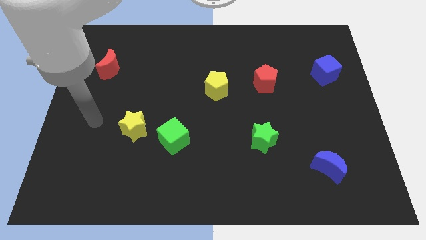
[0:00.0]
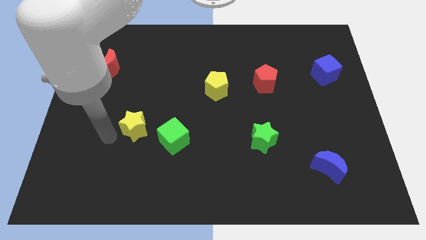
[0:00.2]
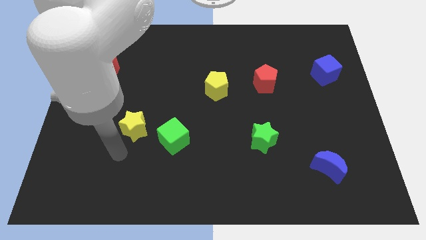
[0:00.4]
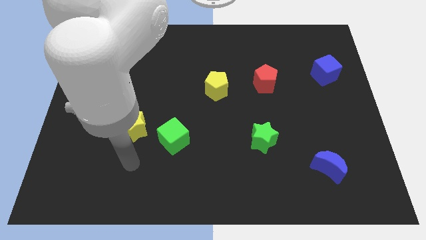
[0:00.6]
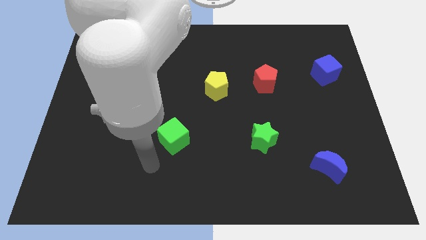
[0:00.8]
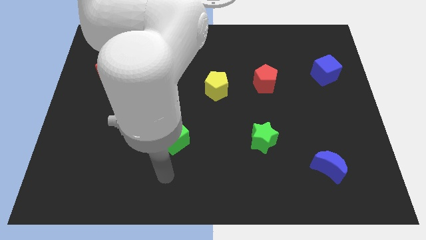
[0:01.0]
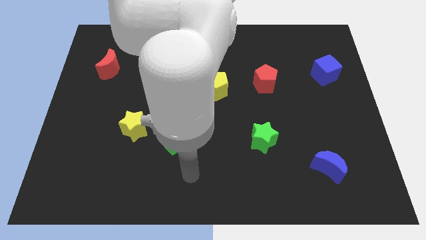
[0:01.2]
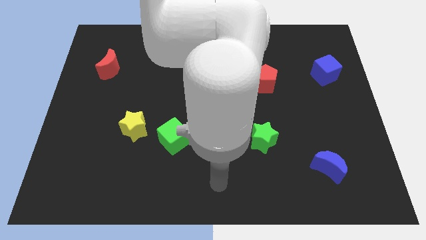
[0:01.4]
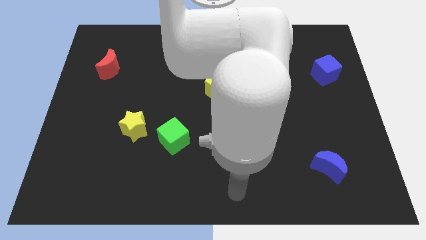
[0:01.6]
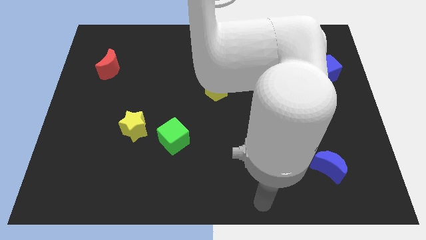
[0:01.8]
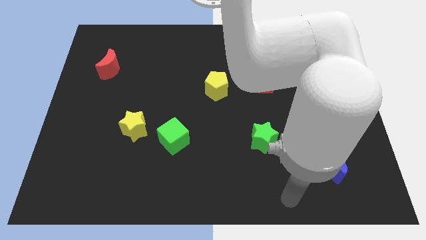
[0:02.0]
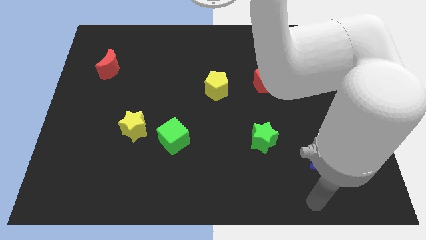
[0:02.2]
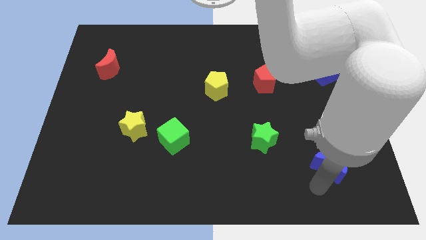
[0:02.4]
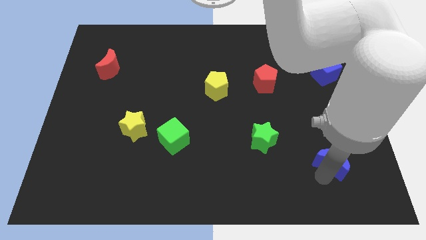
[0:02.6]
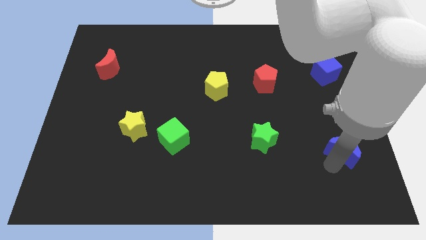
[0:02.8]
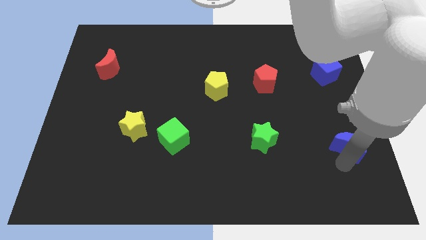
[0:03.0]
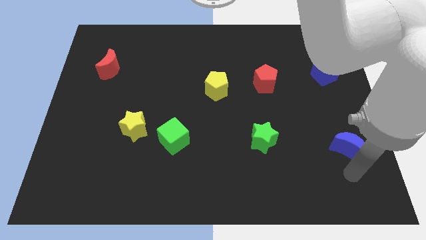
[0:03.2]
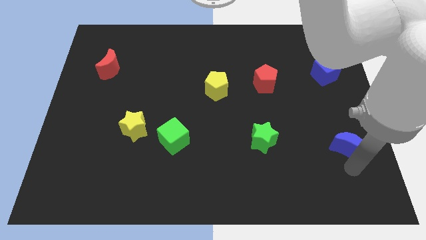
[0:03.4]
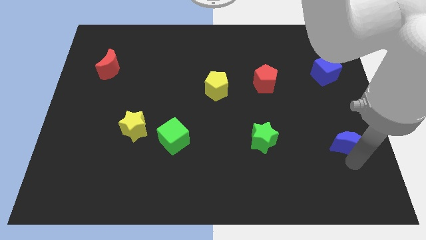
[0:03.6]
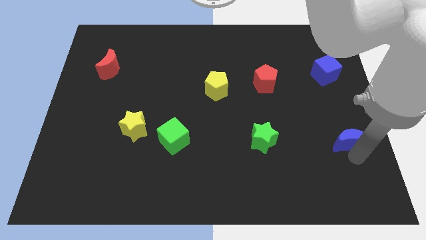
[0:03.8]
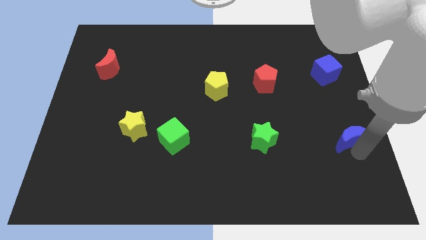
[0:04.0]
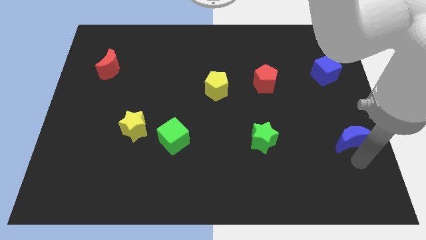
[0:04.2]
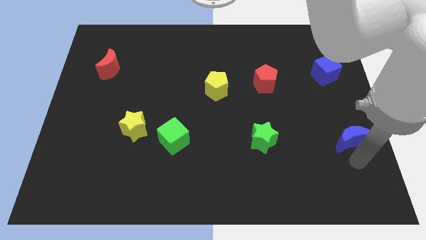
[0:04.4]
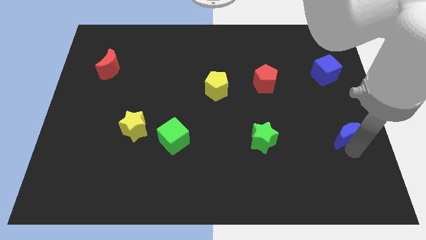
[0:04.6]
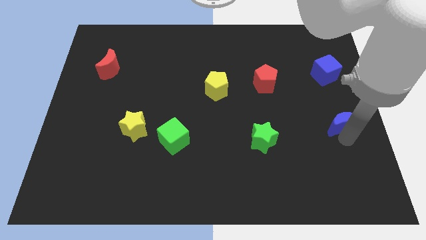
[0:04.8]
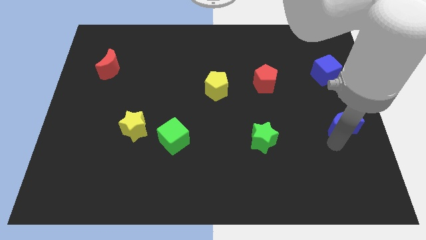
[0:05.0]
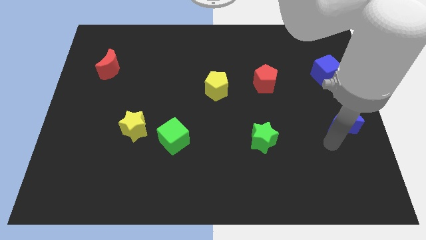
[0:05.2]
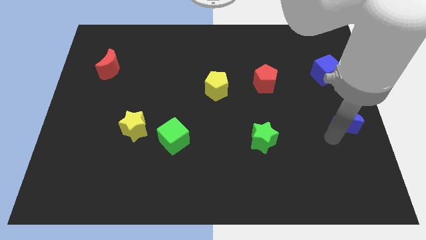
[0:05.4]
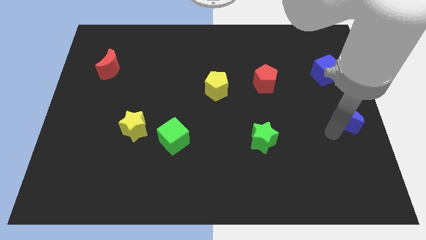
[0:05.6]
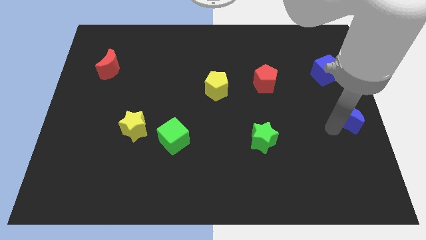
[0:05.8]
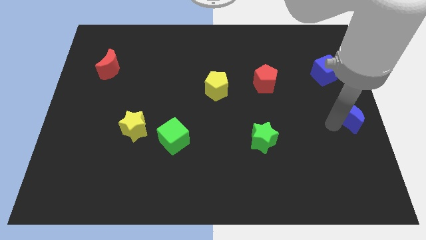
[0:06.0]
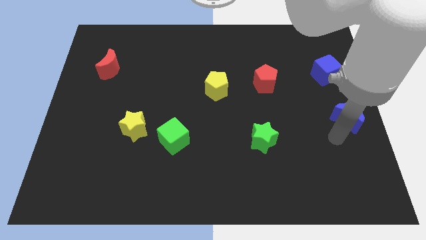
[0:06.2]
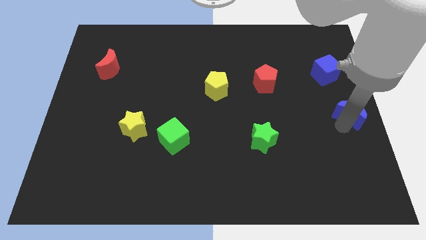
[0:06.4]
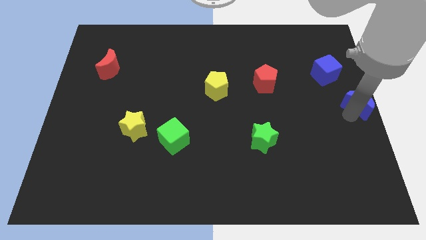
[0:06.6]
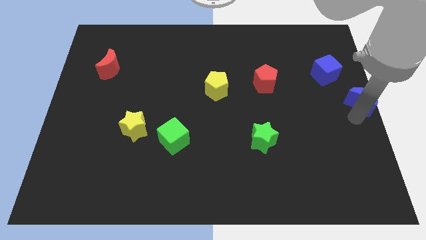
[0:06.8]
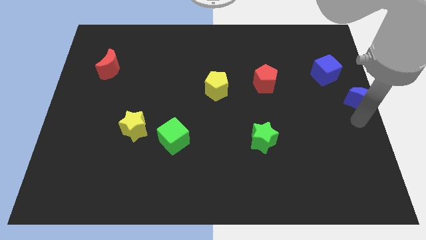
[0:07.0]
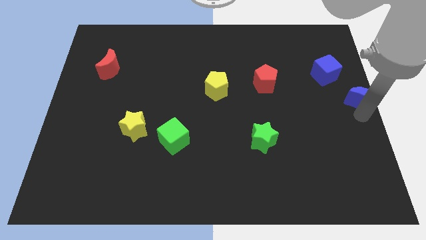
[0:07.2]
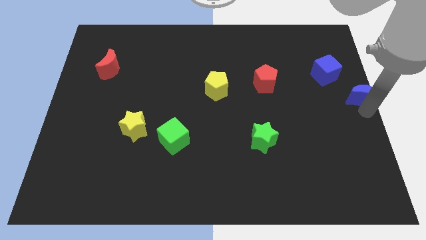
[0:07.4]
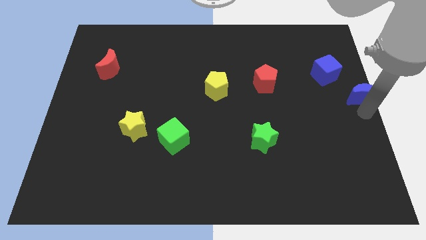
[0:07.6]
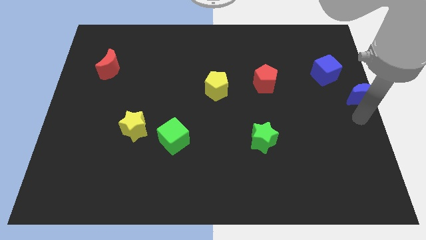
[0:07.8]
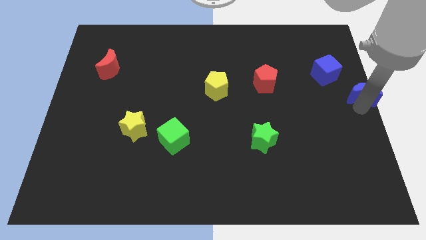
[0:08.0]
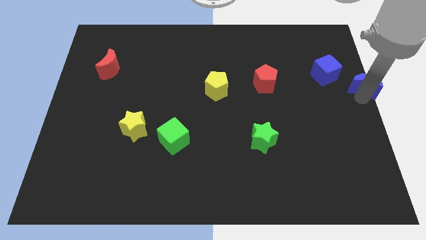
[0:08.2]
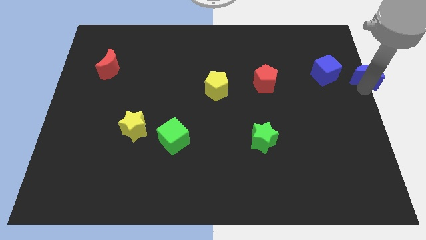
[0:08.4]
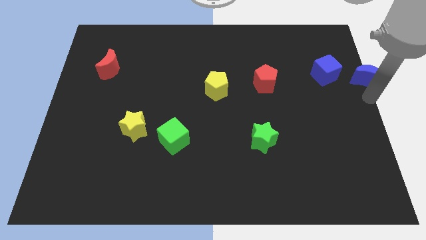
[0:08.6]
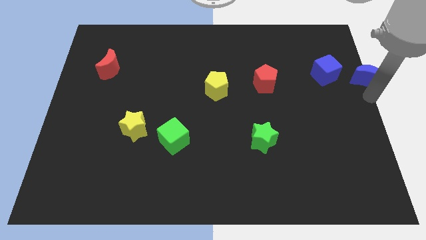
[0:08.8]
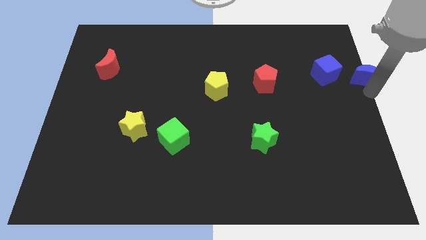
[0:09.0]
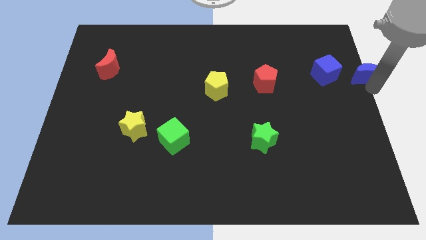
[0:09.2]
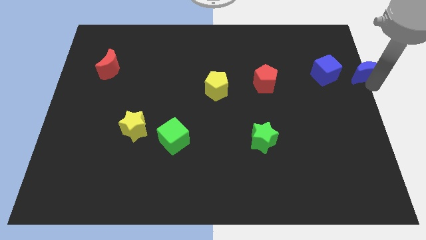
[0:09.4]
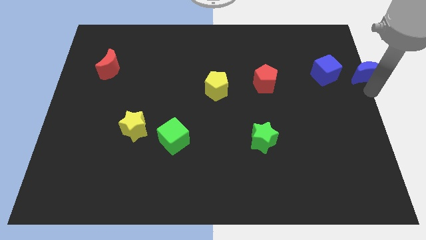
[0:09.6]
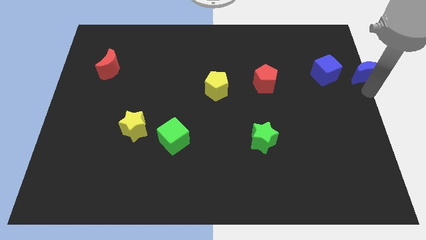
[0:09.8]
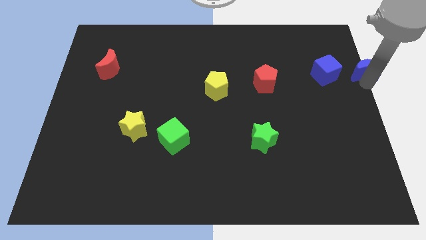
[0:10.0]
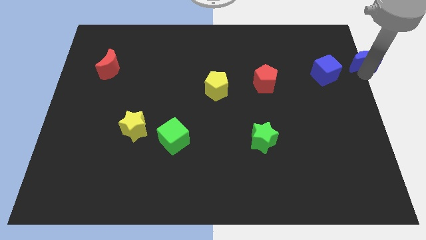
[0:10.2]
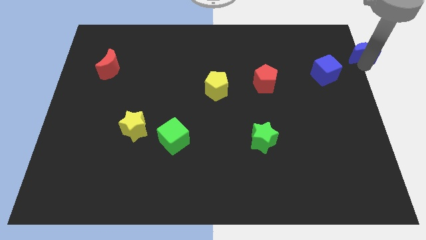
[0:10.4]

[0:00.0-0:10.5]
put the blue moon to the top right of the board

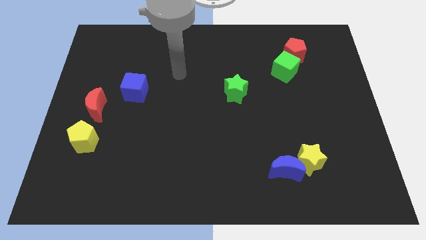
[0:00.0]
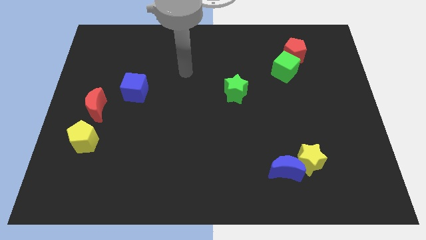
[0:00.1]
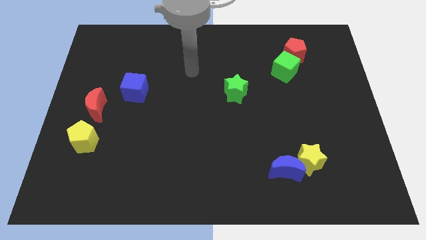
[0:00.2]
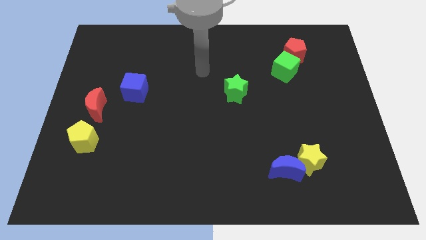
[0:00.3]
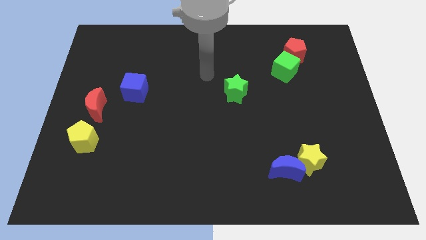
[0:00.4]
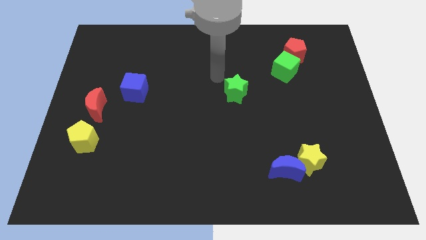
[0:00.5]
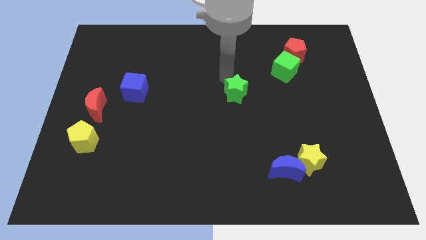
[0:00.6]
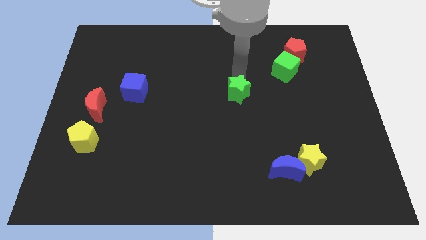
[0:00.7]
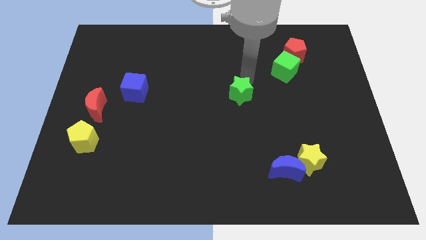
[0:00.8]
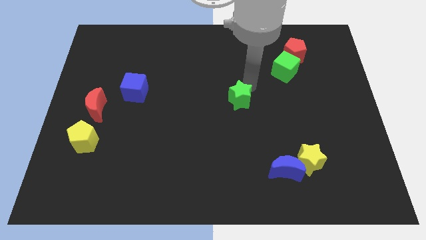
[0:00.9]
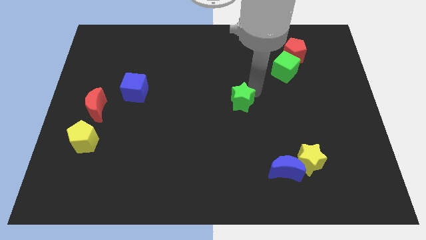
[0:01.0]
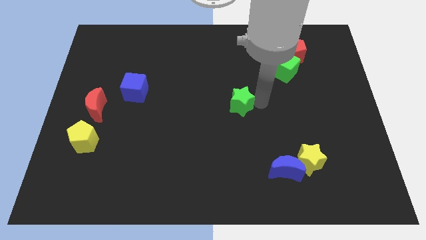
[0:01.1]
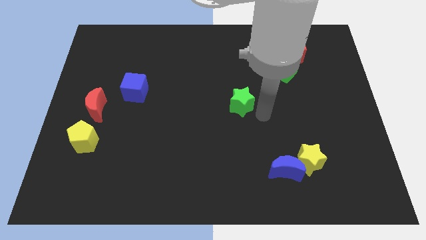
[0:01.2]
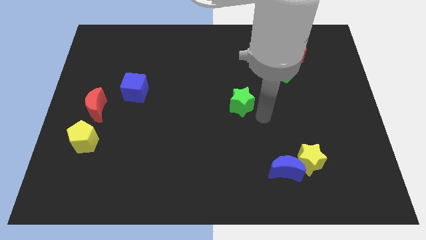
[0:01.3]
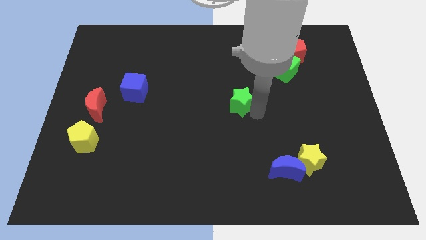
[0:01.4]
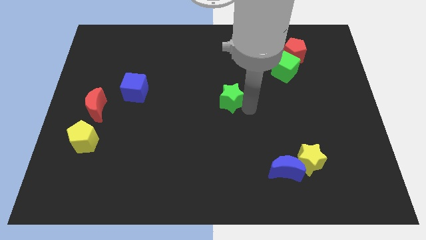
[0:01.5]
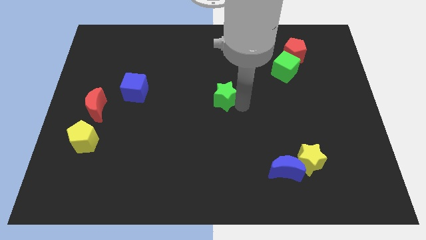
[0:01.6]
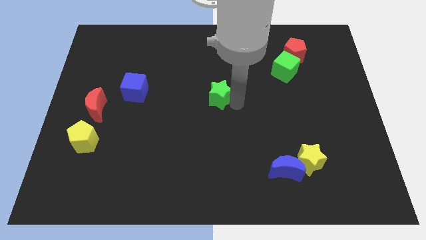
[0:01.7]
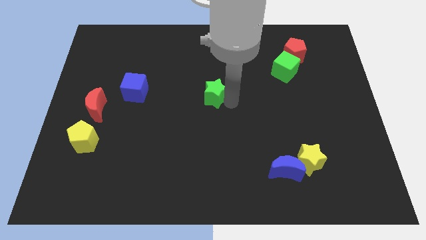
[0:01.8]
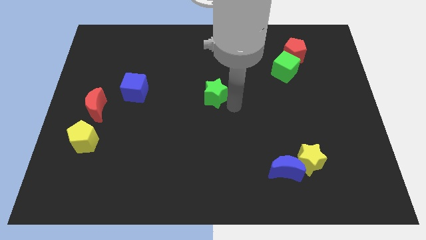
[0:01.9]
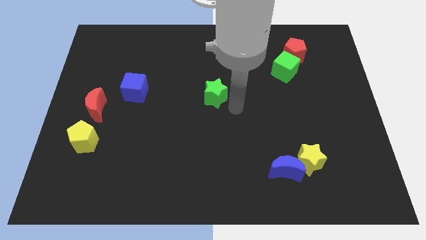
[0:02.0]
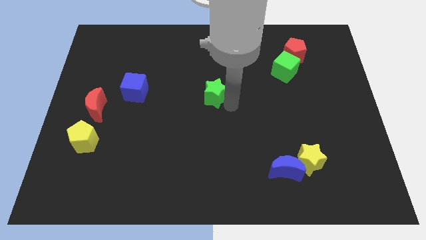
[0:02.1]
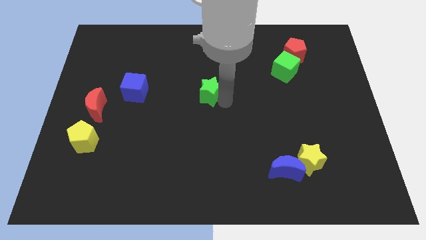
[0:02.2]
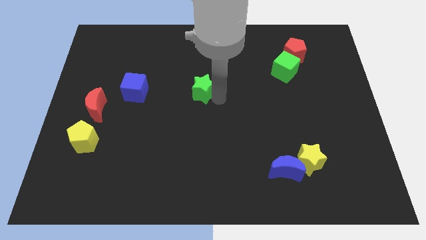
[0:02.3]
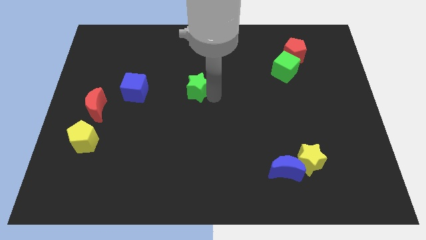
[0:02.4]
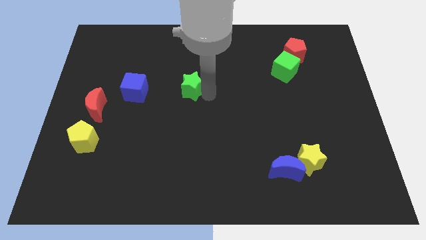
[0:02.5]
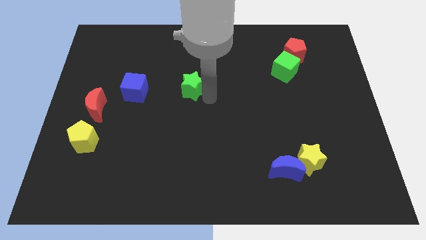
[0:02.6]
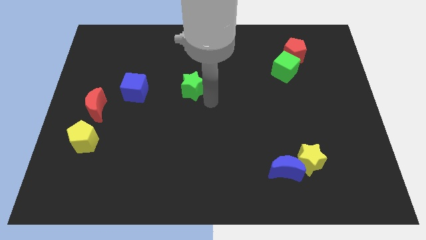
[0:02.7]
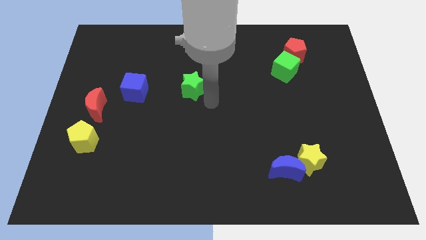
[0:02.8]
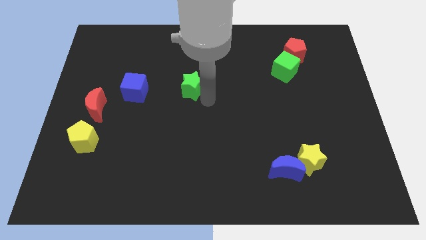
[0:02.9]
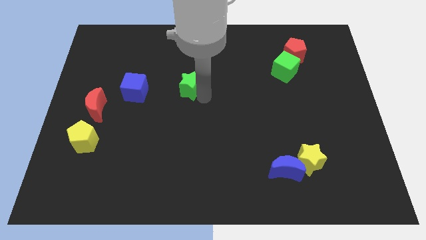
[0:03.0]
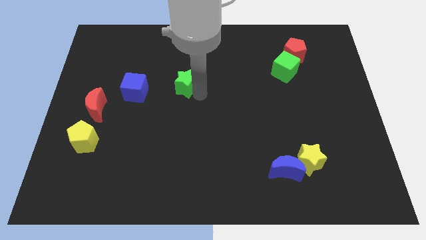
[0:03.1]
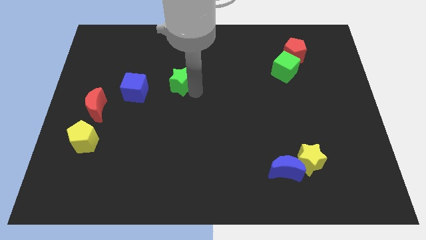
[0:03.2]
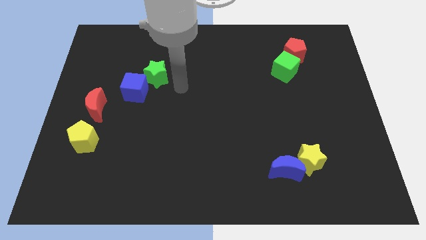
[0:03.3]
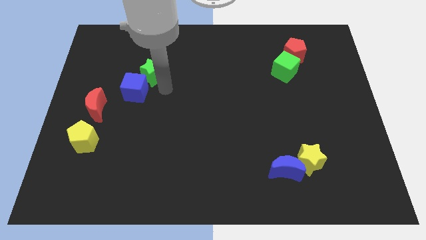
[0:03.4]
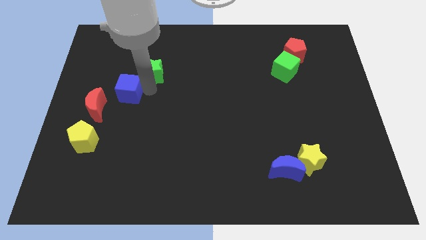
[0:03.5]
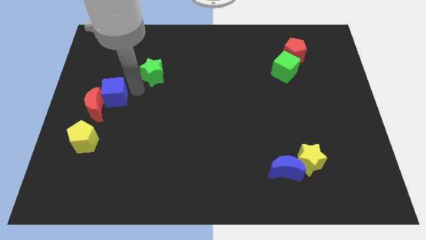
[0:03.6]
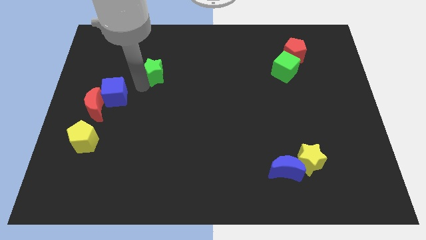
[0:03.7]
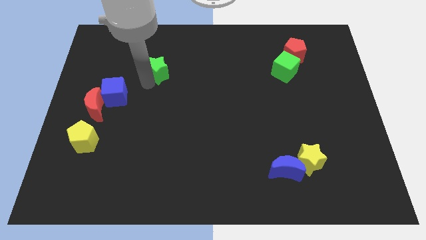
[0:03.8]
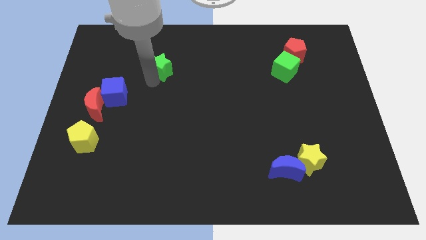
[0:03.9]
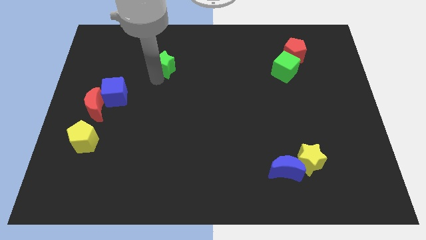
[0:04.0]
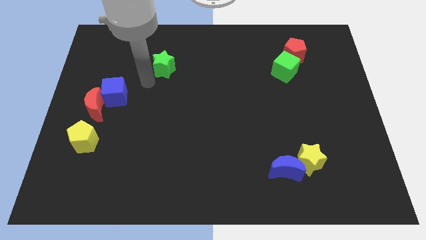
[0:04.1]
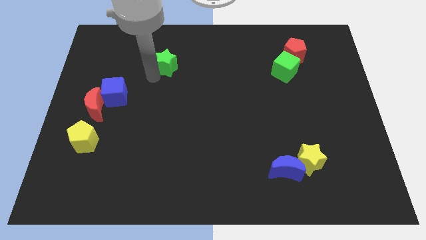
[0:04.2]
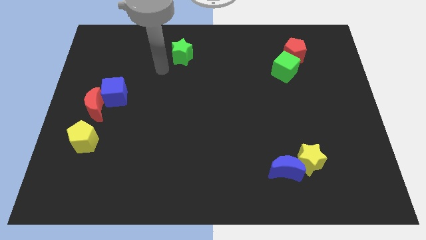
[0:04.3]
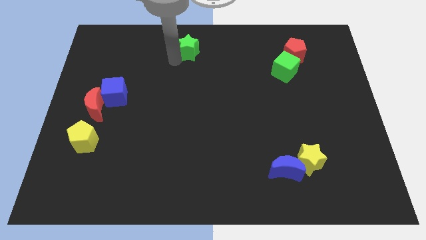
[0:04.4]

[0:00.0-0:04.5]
push the green star to the towards your base
